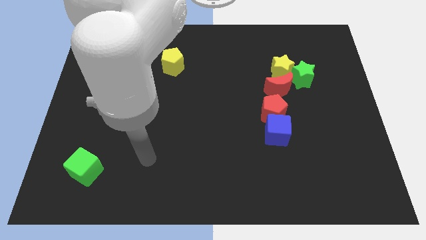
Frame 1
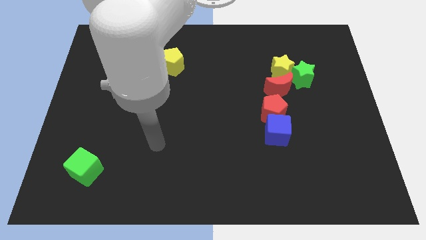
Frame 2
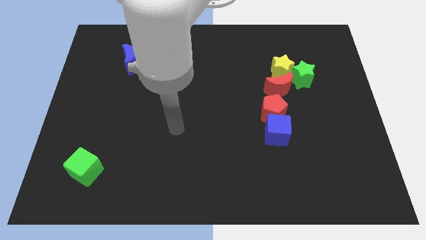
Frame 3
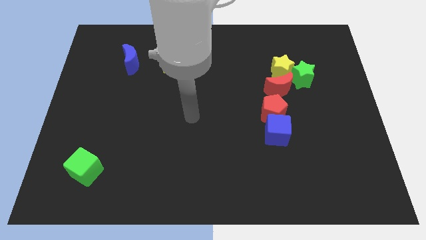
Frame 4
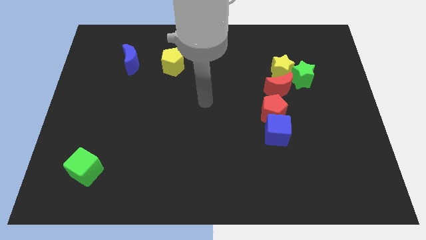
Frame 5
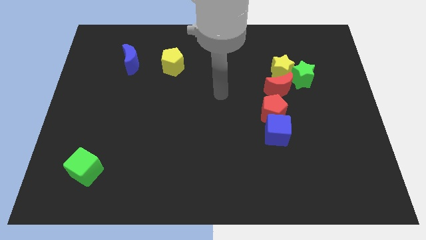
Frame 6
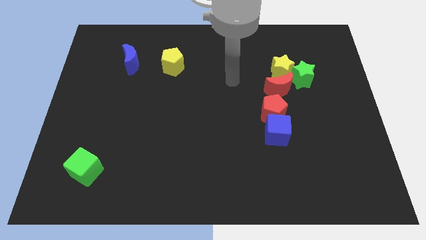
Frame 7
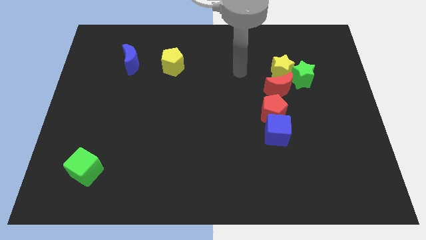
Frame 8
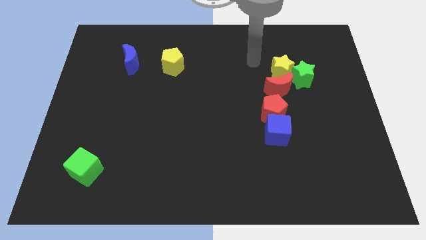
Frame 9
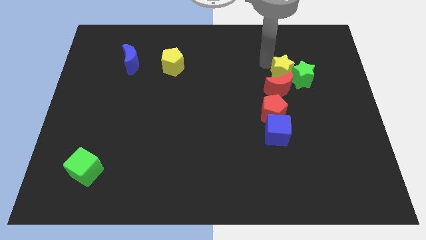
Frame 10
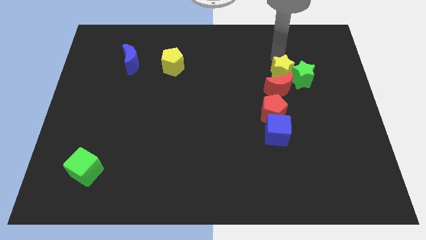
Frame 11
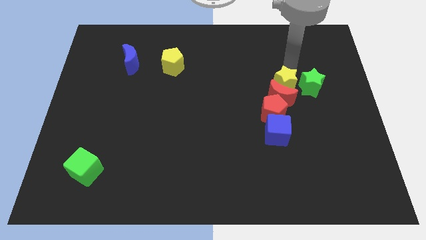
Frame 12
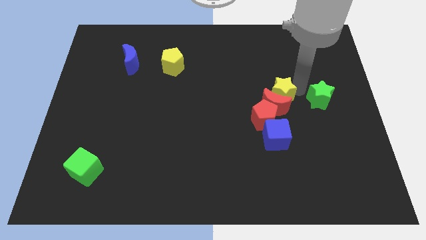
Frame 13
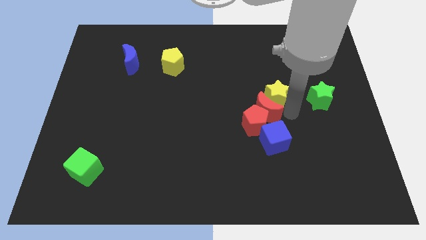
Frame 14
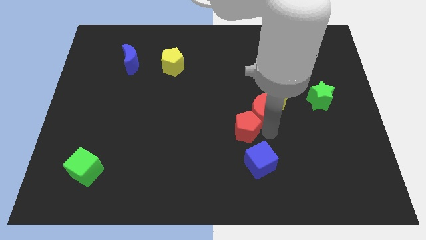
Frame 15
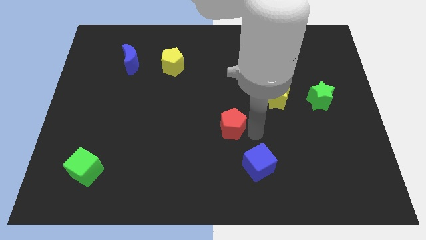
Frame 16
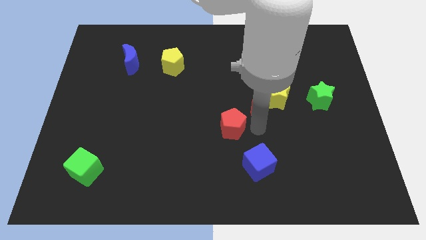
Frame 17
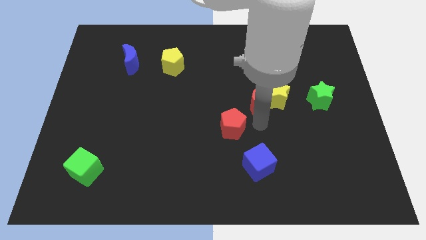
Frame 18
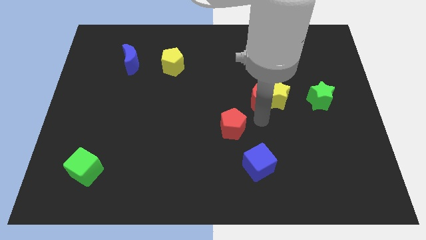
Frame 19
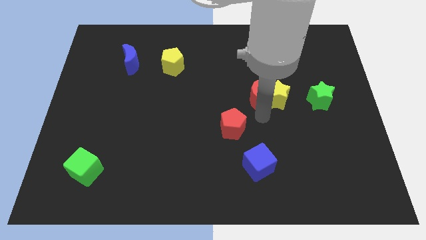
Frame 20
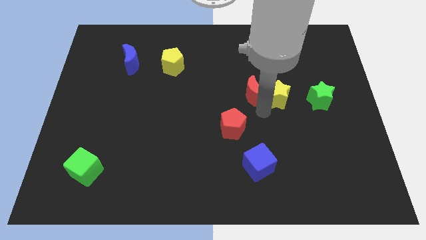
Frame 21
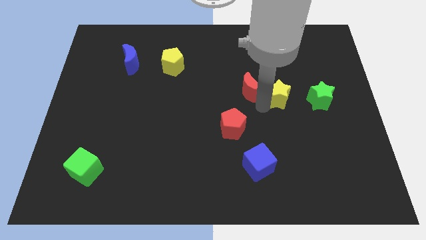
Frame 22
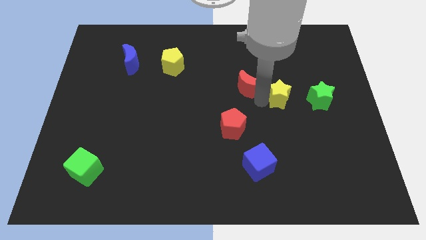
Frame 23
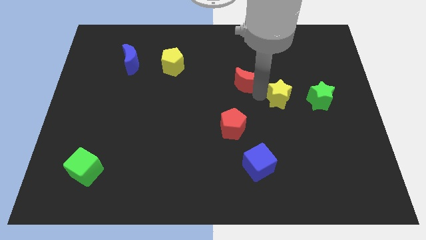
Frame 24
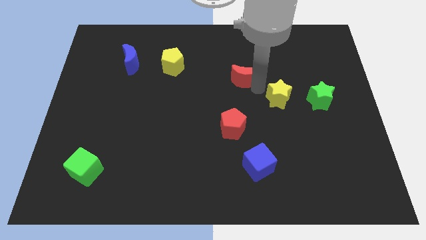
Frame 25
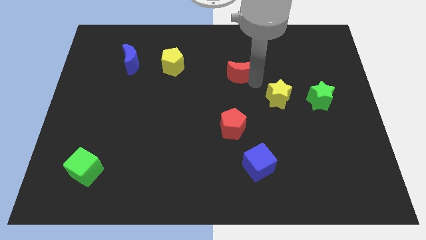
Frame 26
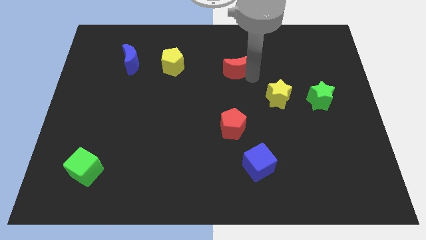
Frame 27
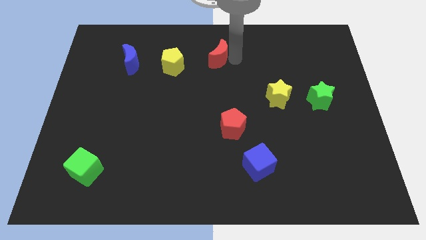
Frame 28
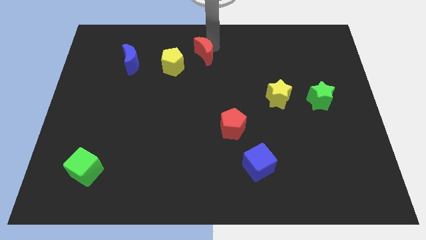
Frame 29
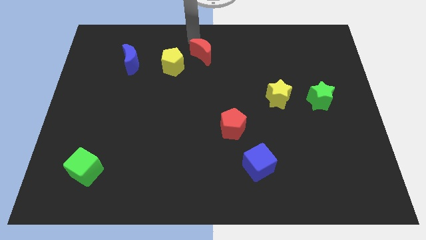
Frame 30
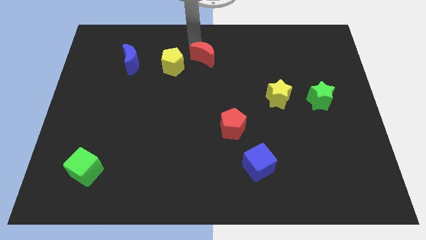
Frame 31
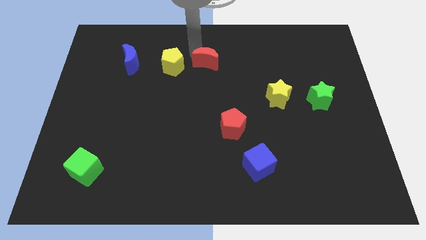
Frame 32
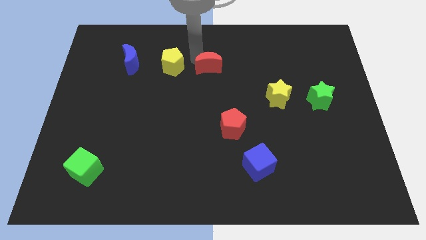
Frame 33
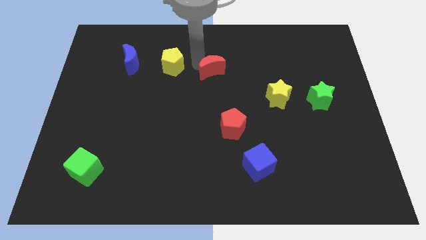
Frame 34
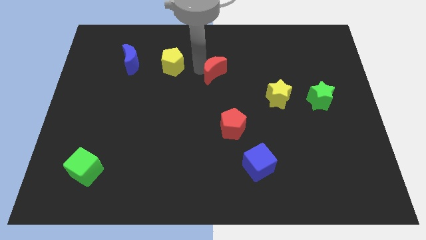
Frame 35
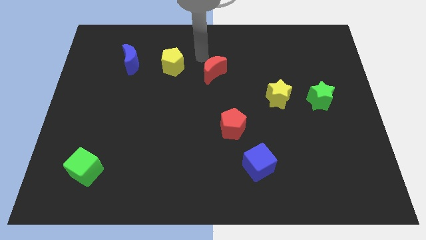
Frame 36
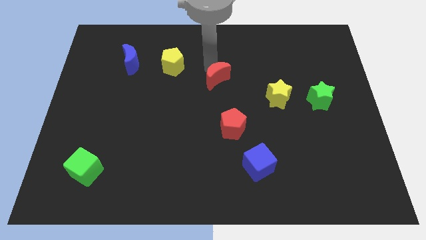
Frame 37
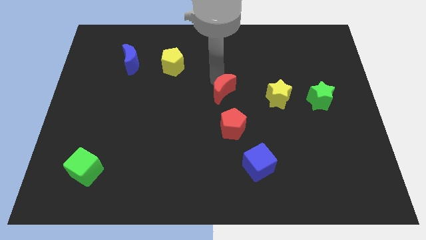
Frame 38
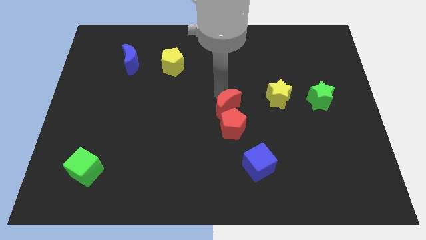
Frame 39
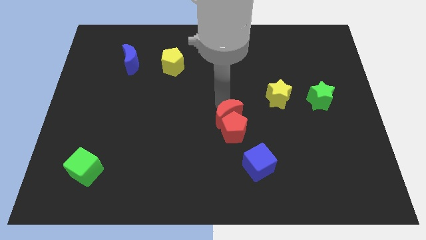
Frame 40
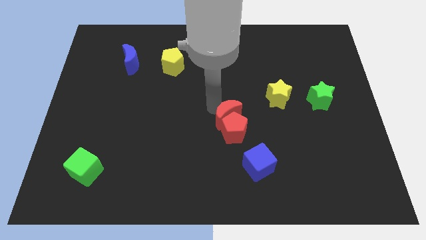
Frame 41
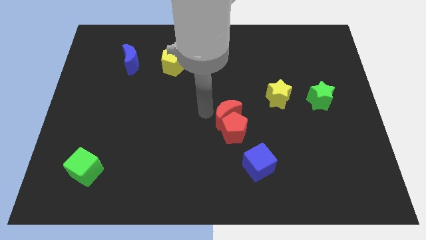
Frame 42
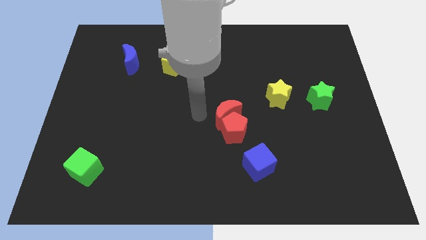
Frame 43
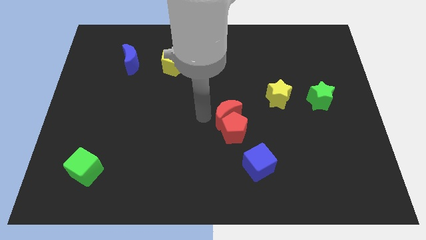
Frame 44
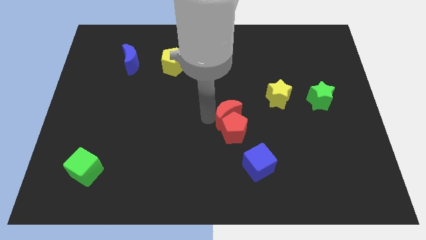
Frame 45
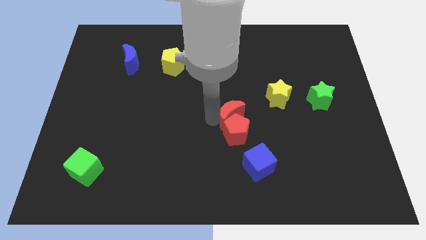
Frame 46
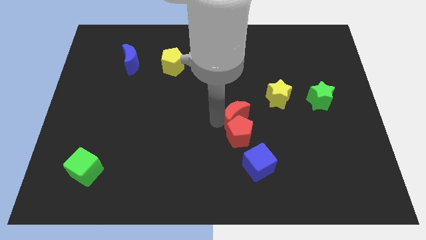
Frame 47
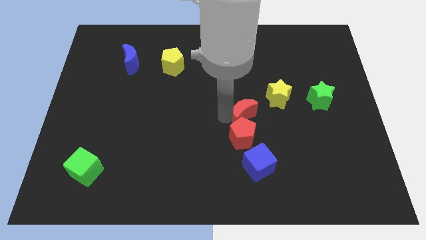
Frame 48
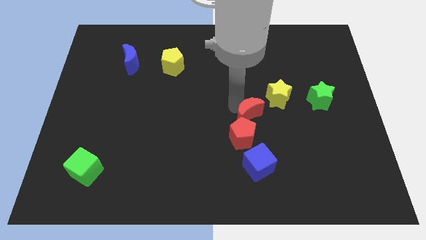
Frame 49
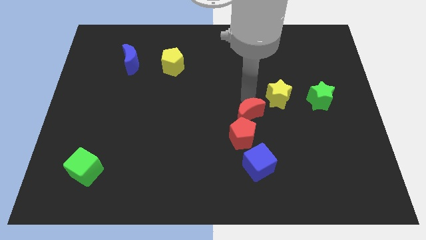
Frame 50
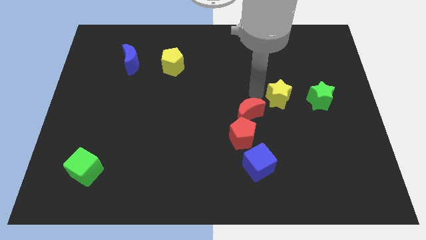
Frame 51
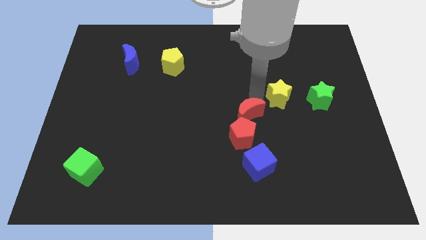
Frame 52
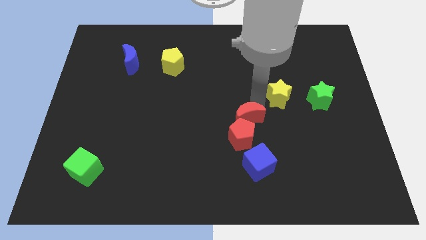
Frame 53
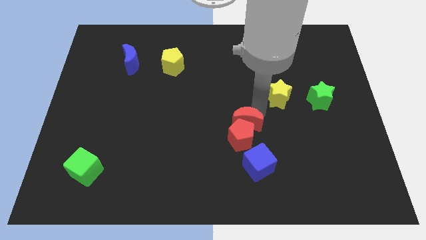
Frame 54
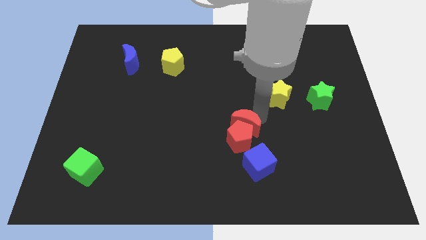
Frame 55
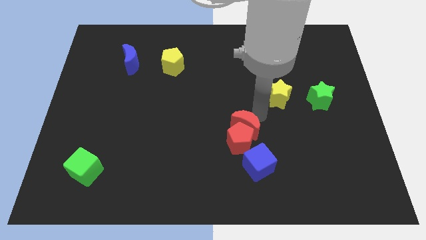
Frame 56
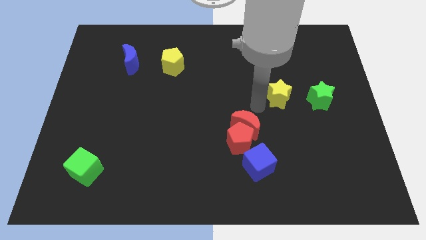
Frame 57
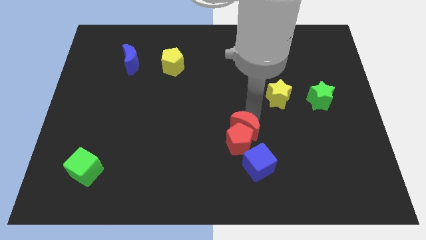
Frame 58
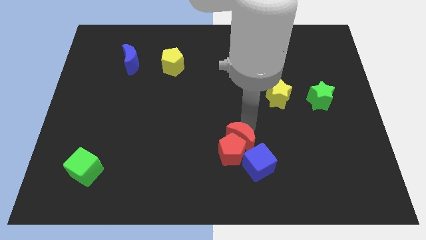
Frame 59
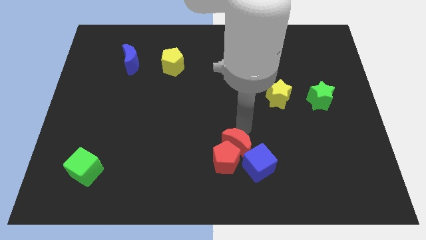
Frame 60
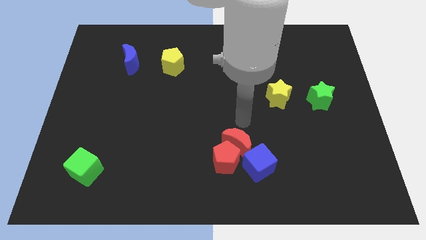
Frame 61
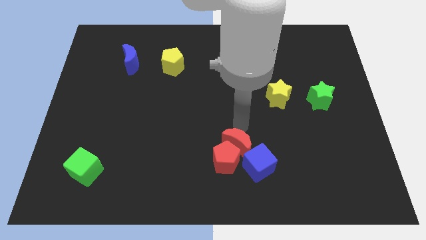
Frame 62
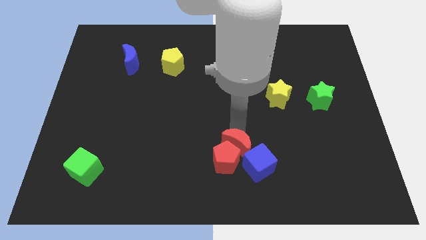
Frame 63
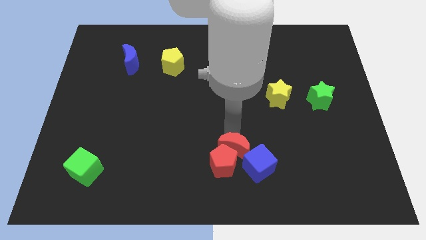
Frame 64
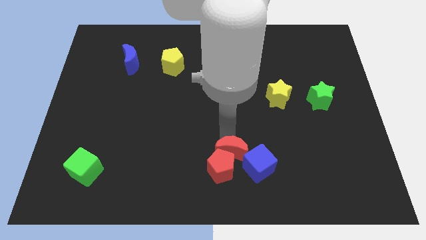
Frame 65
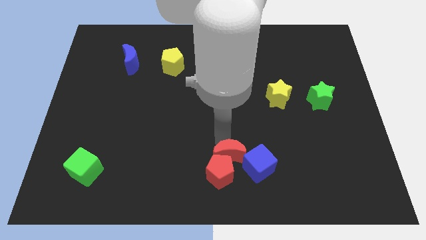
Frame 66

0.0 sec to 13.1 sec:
push the red moon to the bottom
